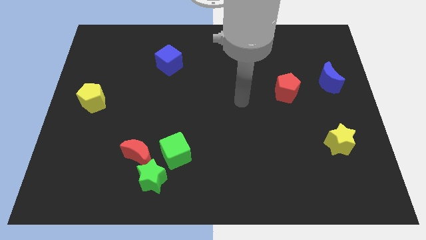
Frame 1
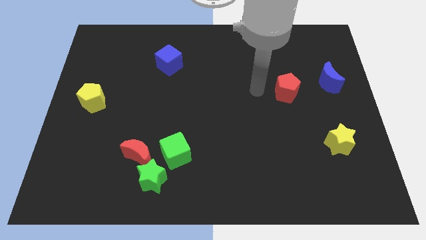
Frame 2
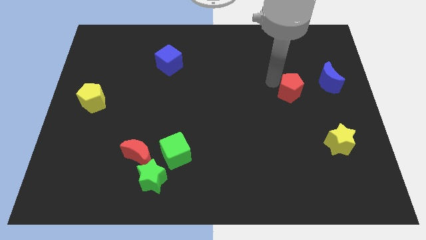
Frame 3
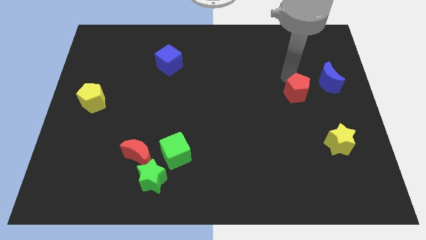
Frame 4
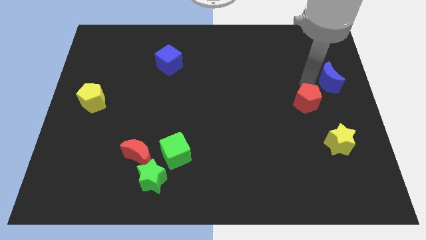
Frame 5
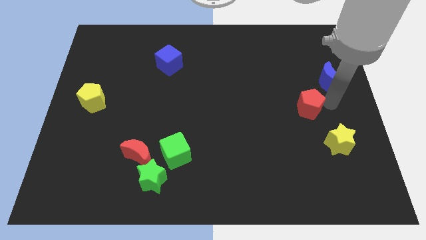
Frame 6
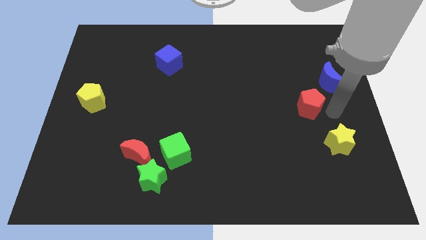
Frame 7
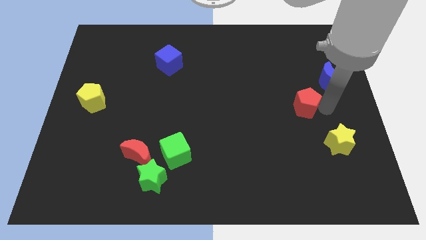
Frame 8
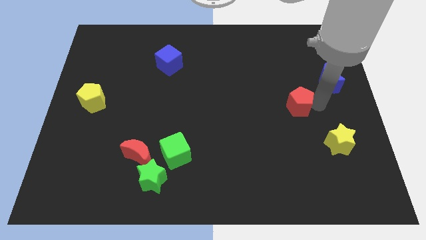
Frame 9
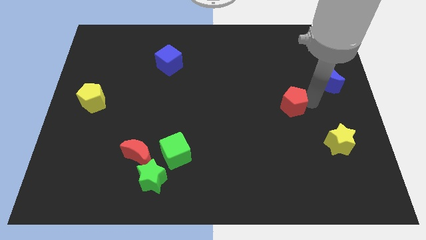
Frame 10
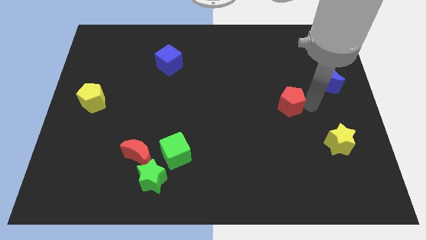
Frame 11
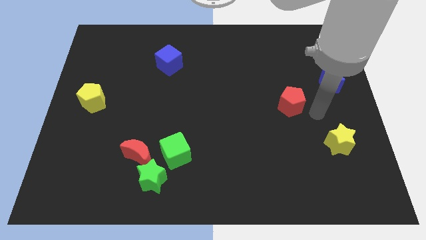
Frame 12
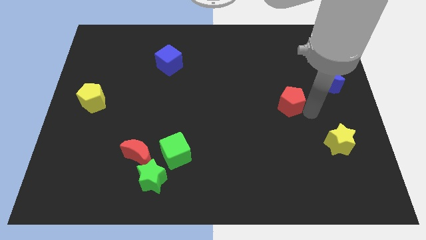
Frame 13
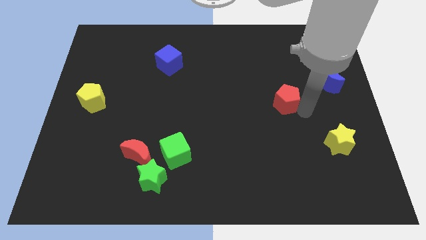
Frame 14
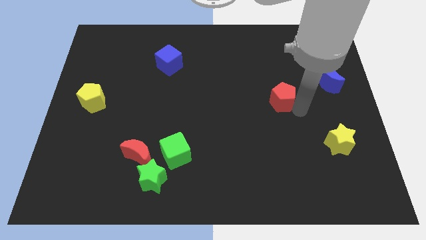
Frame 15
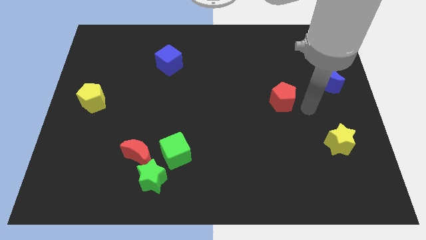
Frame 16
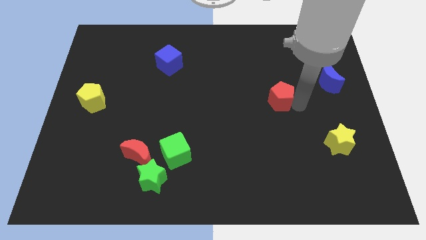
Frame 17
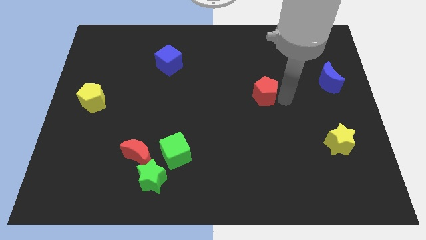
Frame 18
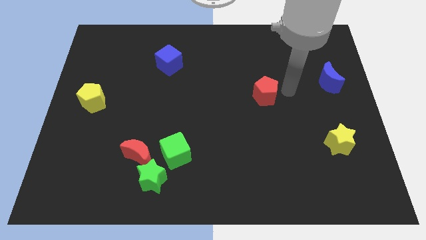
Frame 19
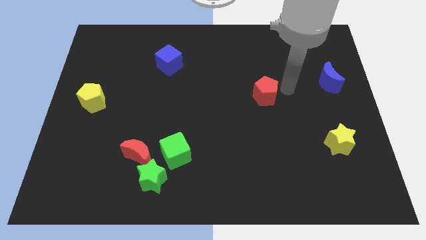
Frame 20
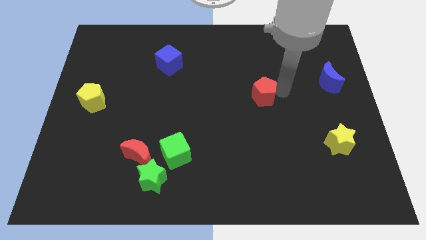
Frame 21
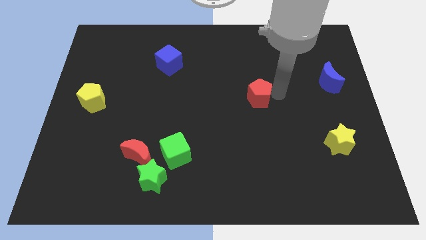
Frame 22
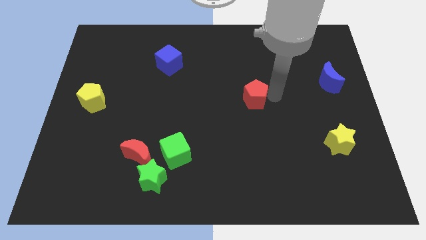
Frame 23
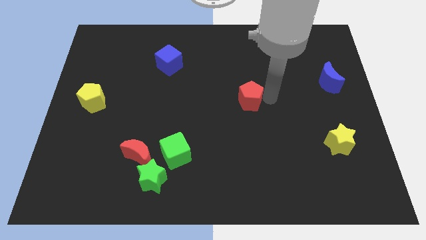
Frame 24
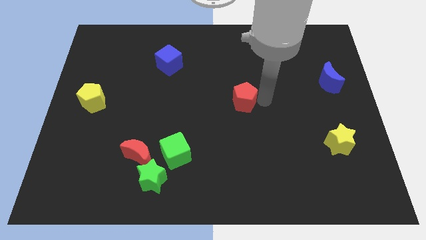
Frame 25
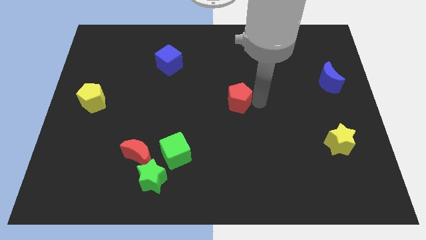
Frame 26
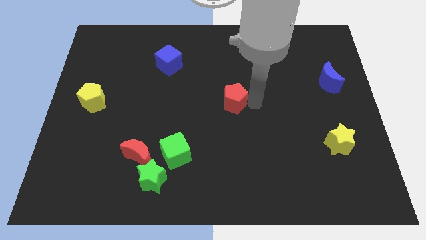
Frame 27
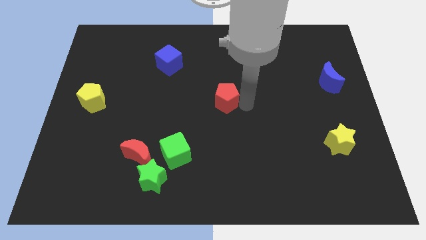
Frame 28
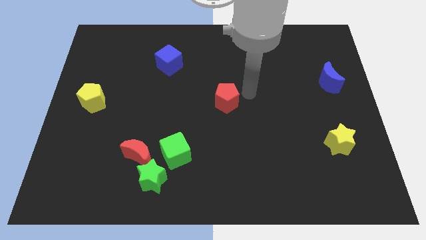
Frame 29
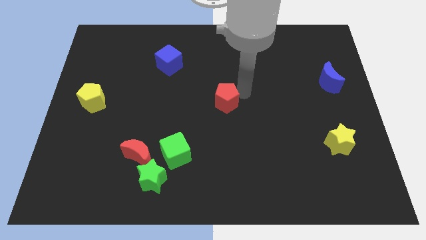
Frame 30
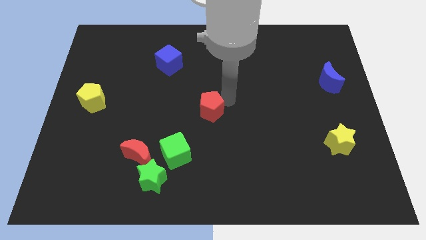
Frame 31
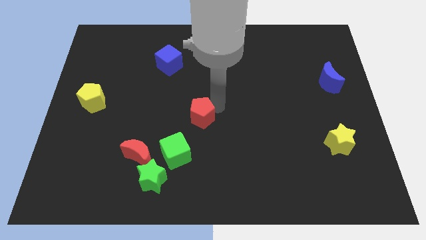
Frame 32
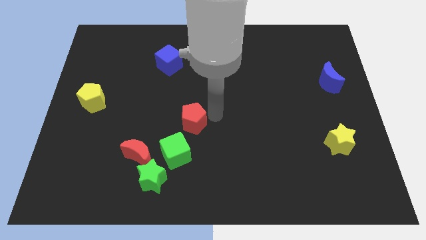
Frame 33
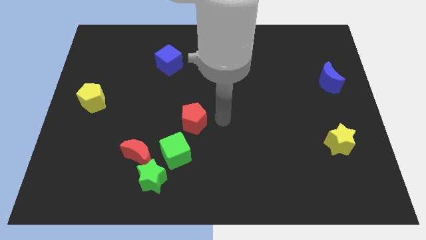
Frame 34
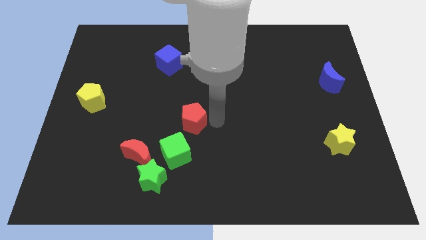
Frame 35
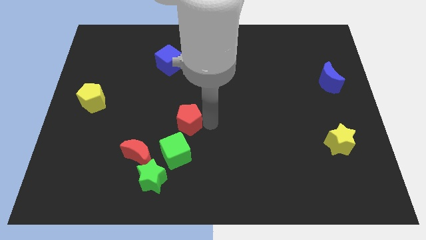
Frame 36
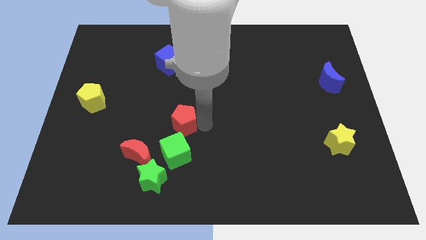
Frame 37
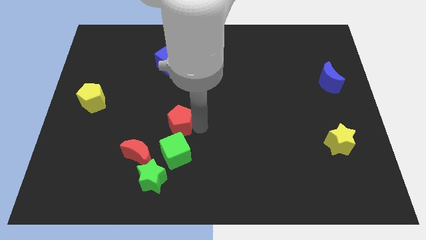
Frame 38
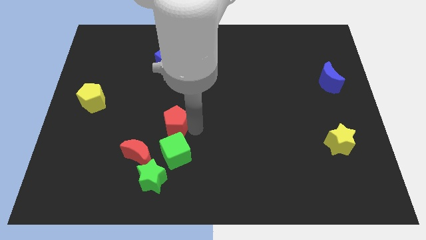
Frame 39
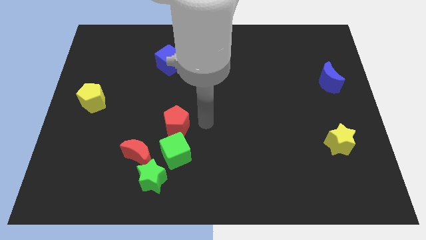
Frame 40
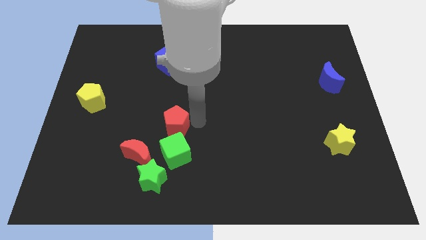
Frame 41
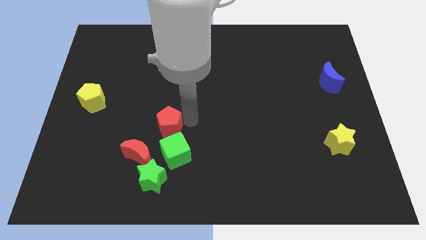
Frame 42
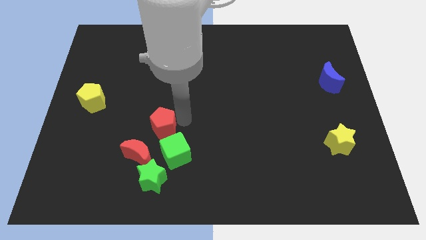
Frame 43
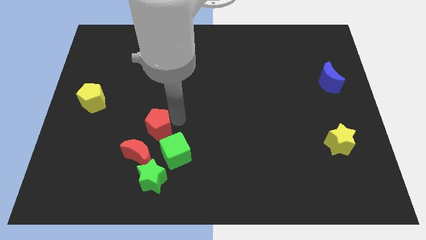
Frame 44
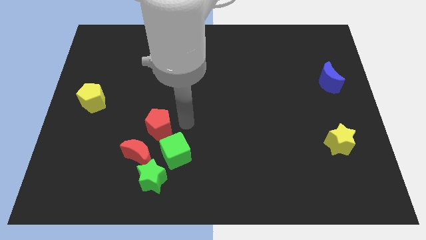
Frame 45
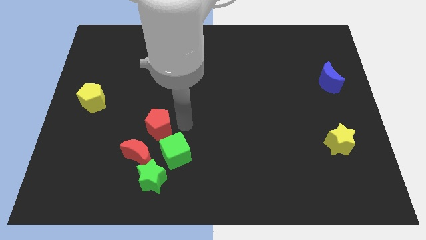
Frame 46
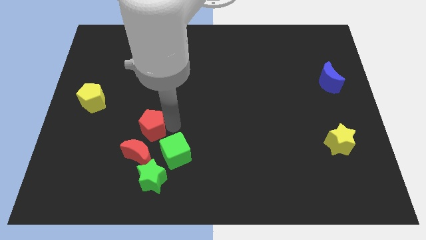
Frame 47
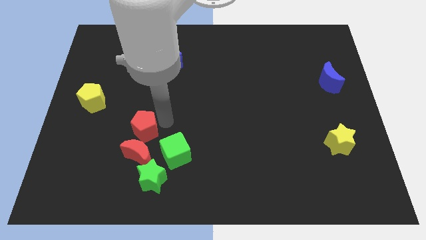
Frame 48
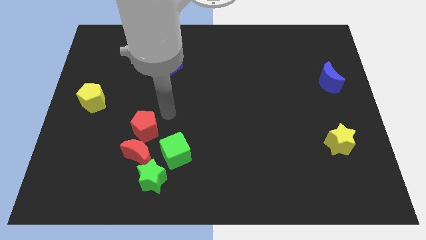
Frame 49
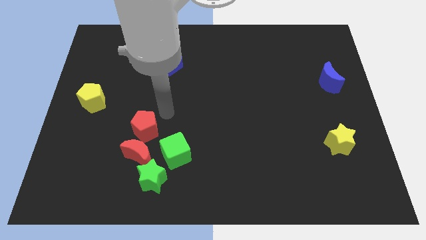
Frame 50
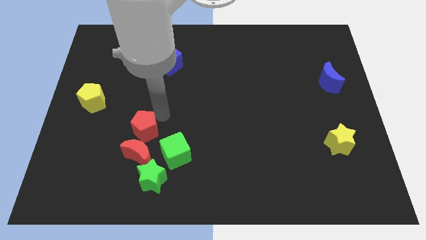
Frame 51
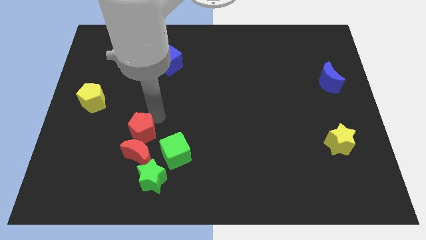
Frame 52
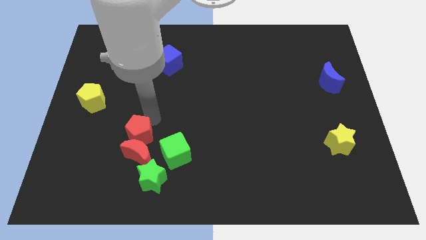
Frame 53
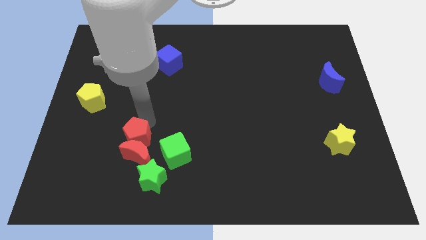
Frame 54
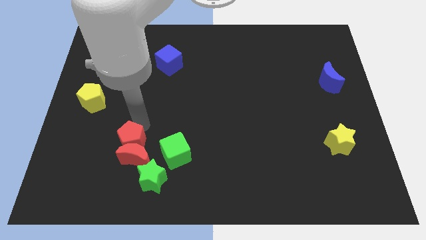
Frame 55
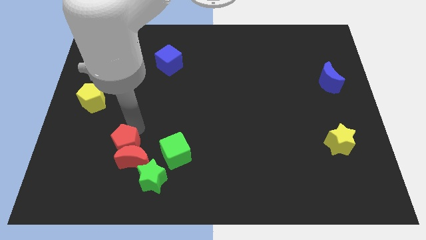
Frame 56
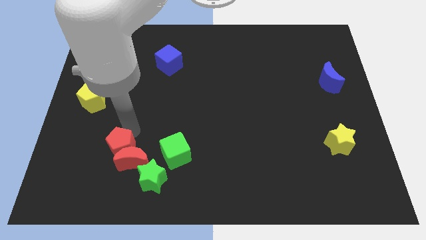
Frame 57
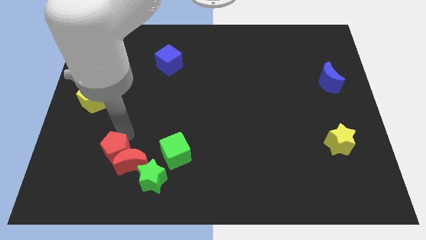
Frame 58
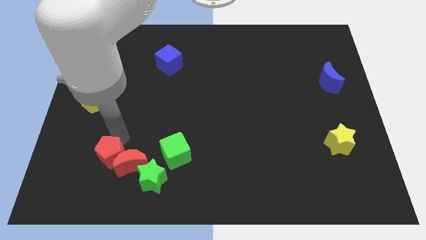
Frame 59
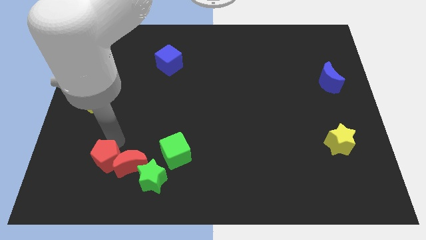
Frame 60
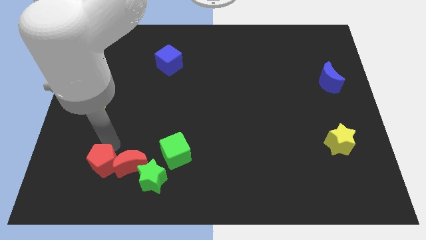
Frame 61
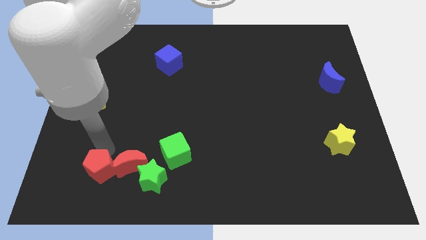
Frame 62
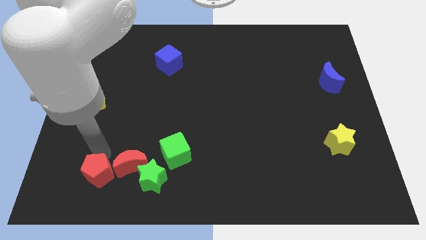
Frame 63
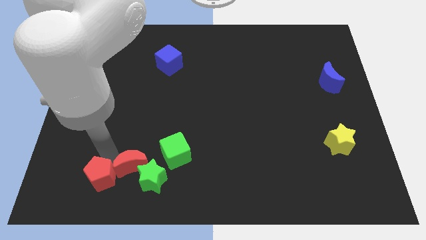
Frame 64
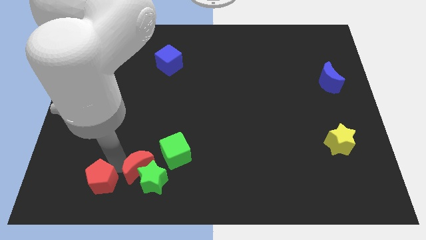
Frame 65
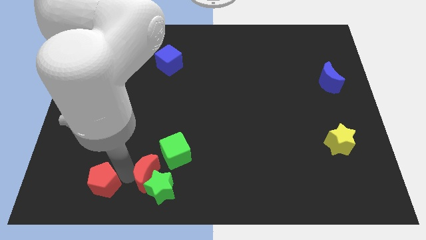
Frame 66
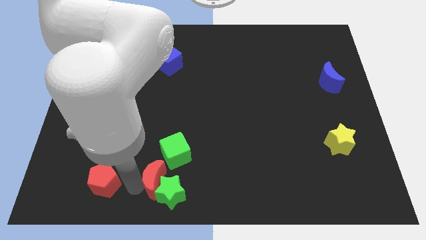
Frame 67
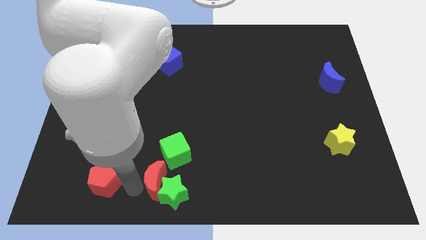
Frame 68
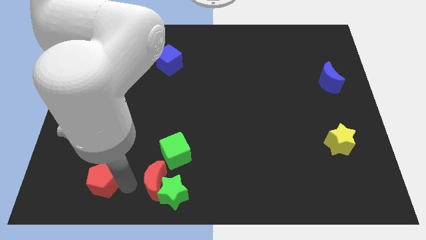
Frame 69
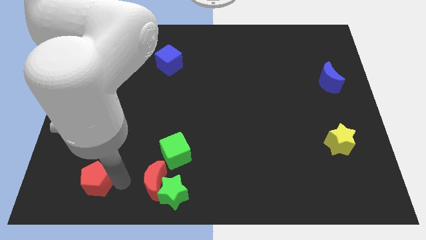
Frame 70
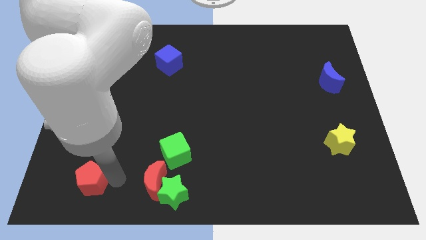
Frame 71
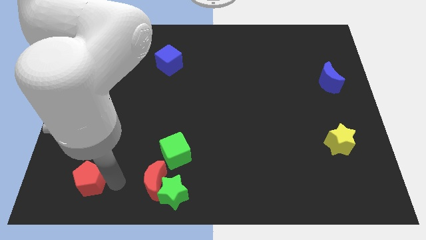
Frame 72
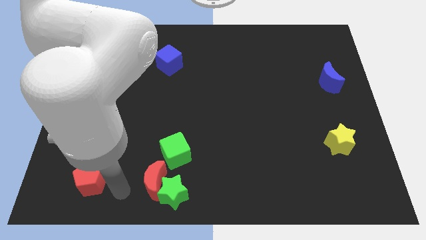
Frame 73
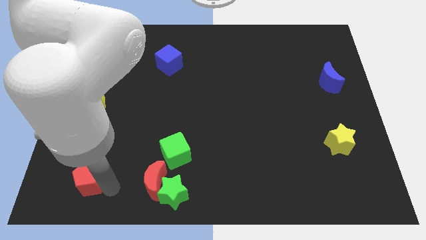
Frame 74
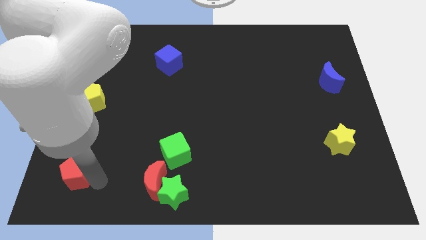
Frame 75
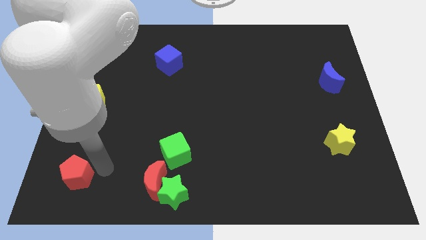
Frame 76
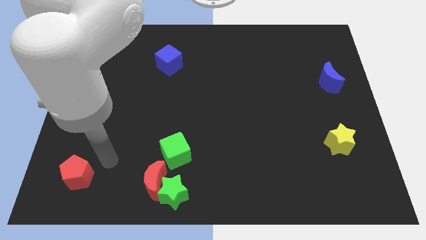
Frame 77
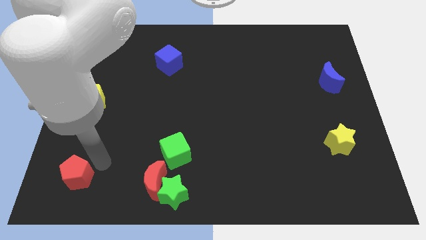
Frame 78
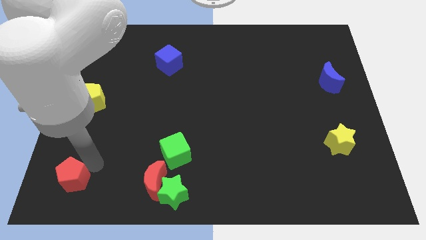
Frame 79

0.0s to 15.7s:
put the red pentagon to the bottom left corner
